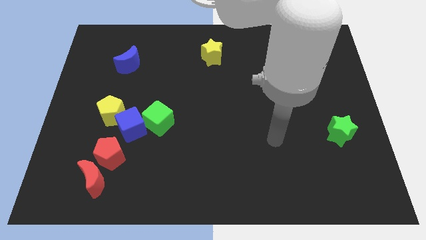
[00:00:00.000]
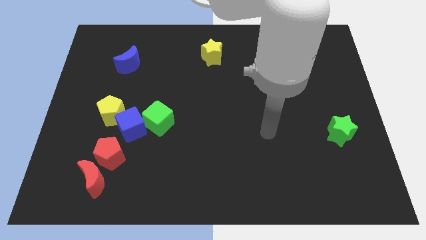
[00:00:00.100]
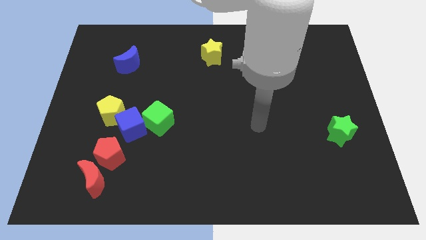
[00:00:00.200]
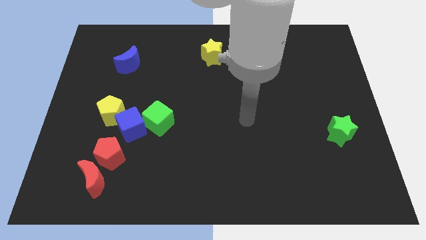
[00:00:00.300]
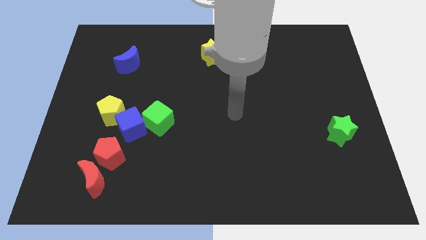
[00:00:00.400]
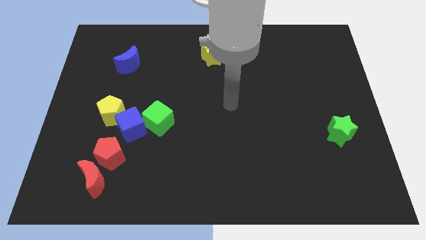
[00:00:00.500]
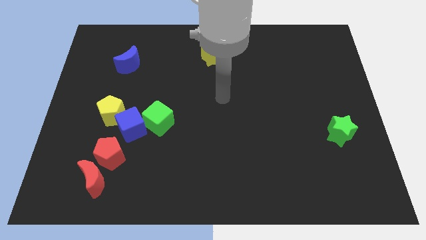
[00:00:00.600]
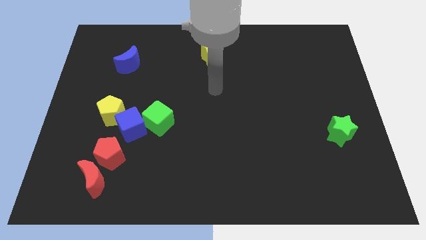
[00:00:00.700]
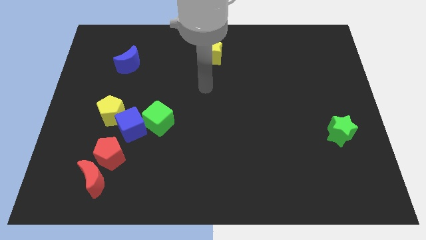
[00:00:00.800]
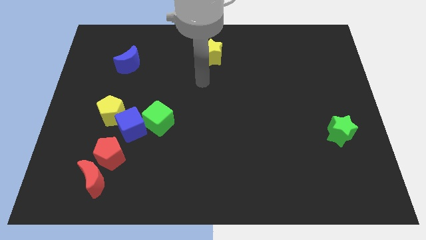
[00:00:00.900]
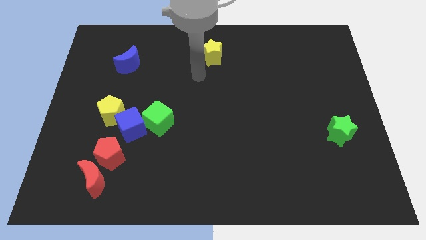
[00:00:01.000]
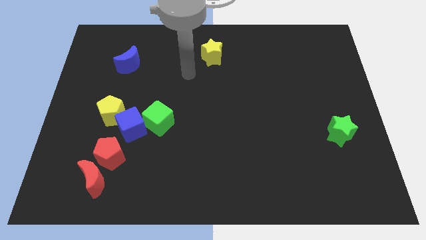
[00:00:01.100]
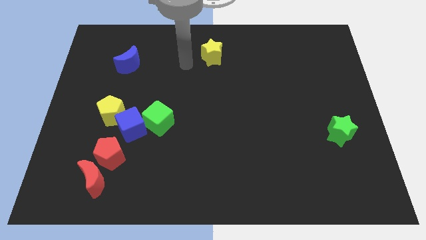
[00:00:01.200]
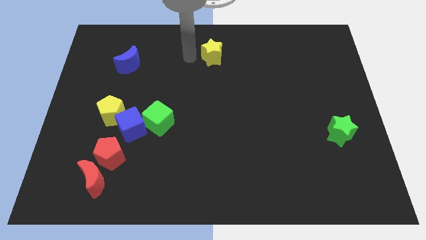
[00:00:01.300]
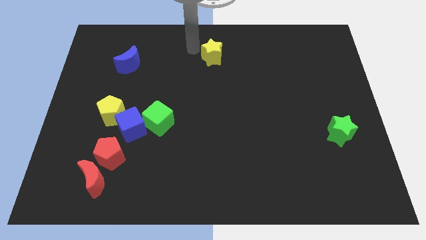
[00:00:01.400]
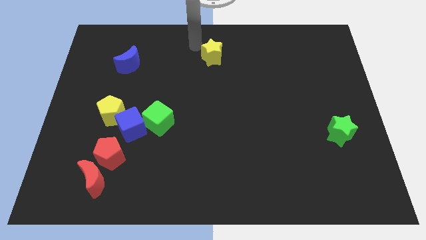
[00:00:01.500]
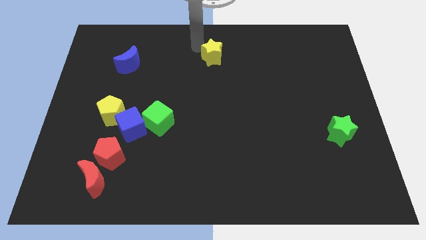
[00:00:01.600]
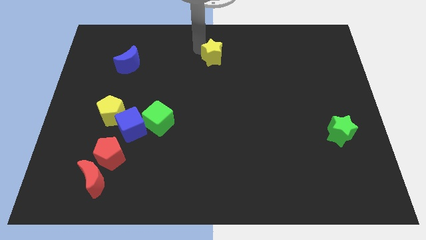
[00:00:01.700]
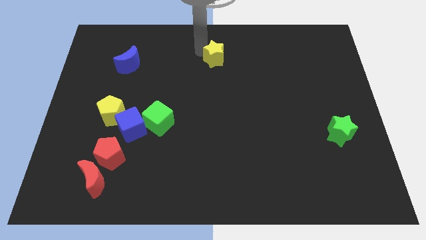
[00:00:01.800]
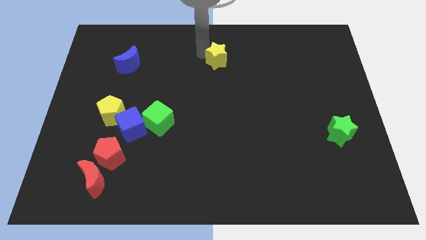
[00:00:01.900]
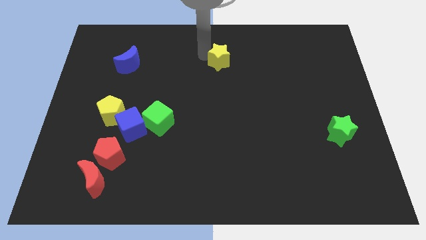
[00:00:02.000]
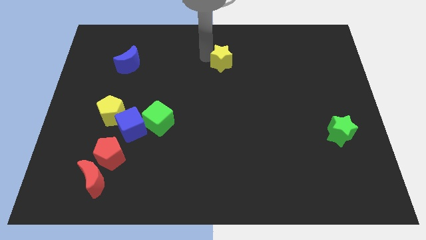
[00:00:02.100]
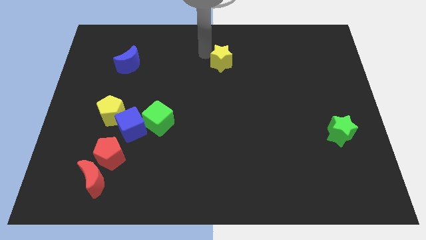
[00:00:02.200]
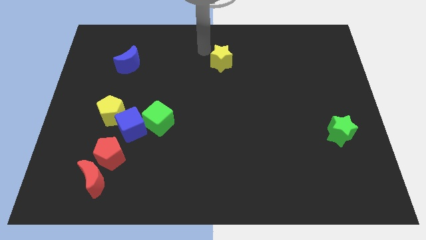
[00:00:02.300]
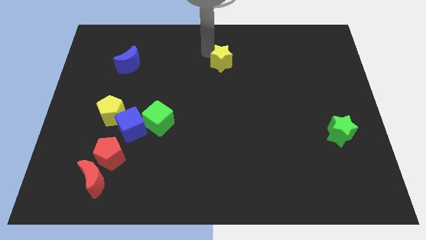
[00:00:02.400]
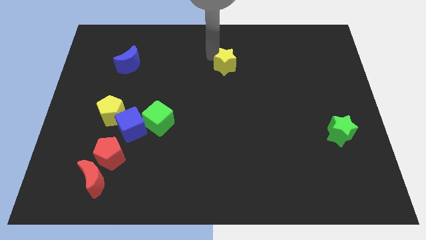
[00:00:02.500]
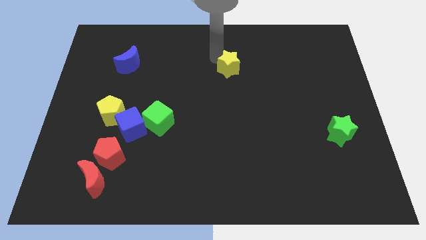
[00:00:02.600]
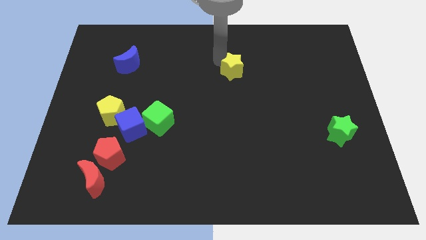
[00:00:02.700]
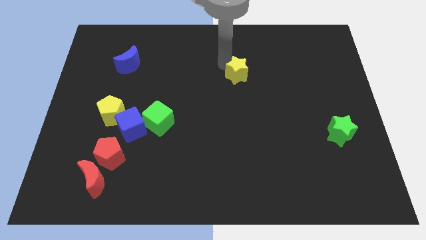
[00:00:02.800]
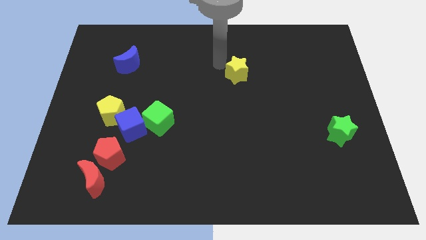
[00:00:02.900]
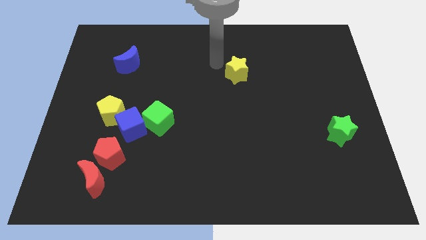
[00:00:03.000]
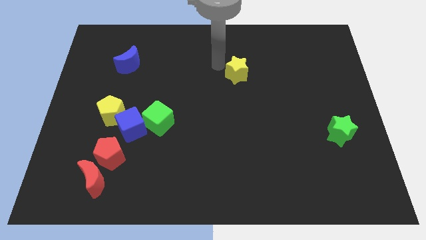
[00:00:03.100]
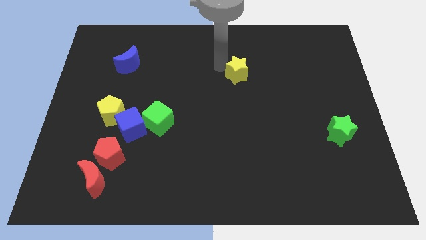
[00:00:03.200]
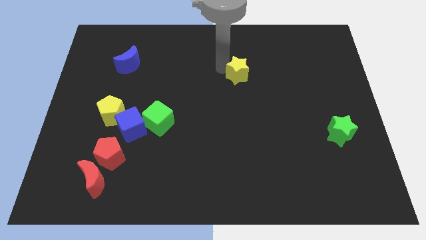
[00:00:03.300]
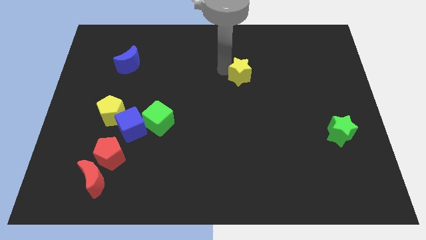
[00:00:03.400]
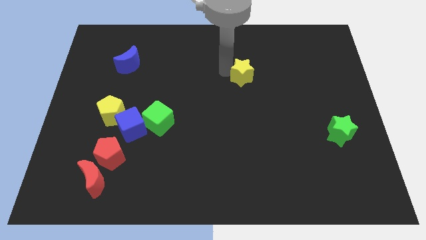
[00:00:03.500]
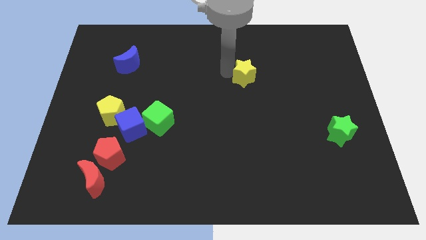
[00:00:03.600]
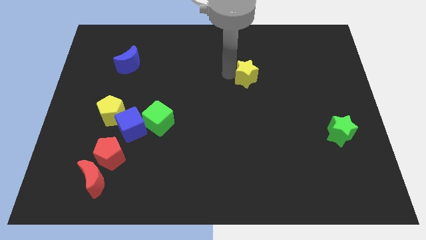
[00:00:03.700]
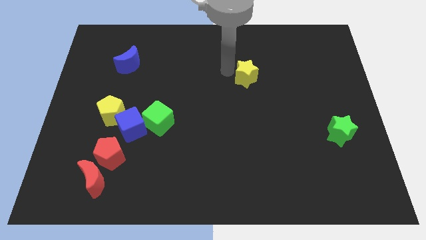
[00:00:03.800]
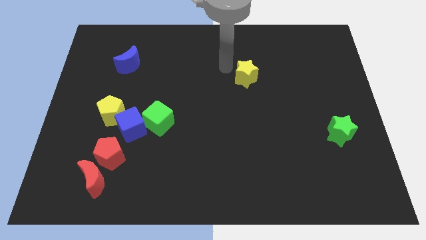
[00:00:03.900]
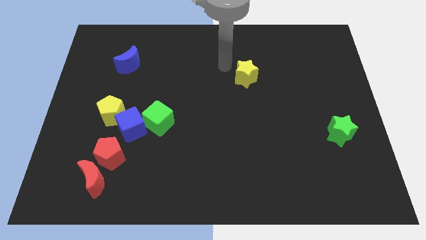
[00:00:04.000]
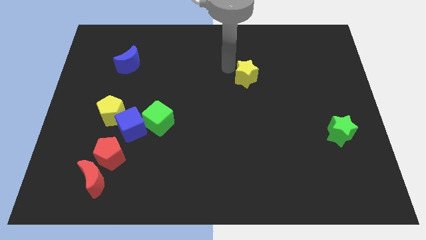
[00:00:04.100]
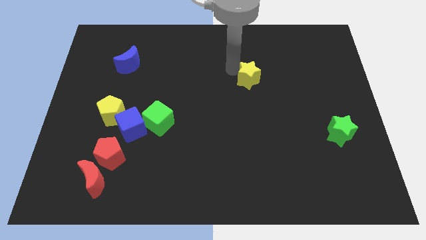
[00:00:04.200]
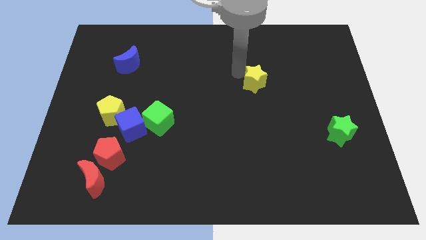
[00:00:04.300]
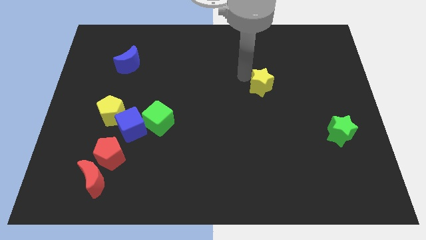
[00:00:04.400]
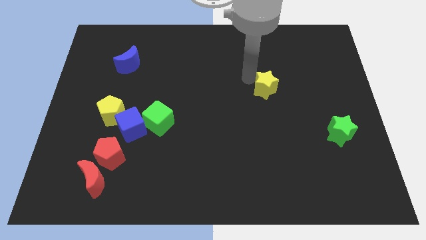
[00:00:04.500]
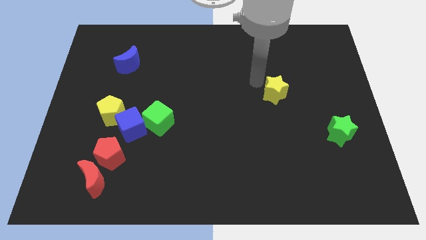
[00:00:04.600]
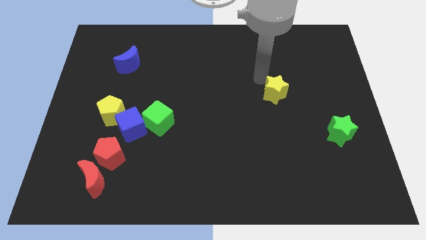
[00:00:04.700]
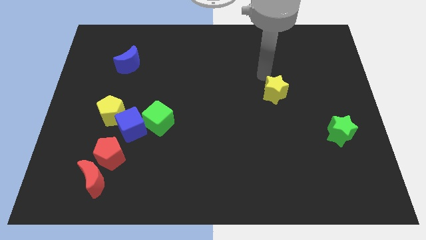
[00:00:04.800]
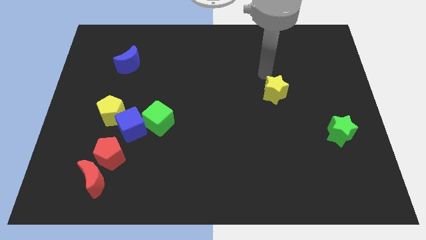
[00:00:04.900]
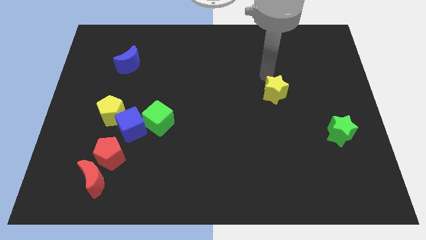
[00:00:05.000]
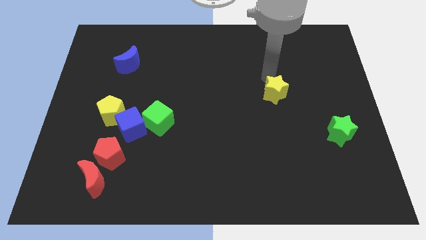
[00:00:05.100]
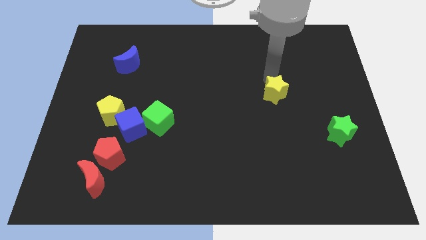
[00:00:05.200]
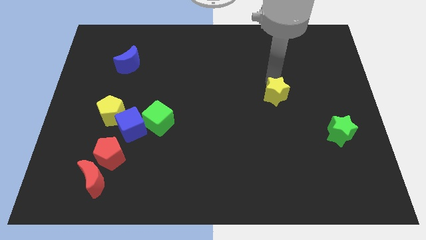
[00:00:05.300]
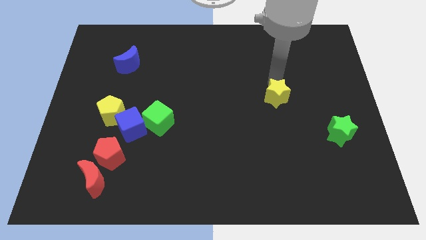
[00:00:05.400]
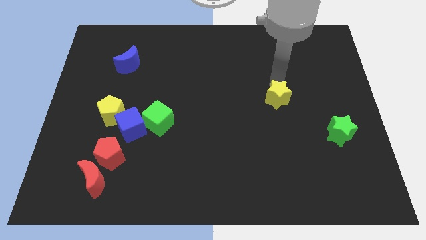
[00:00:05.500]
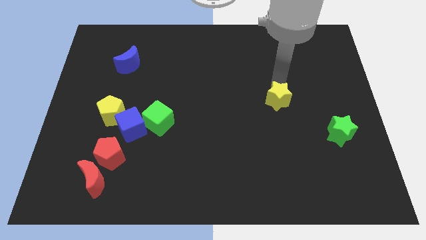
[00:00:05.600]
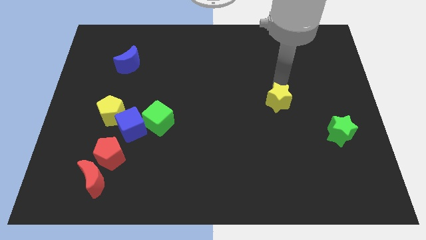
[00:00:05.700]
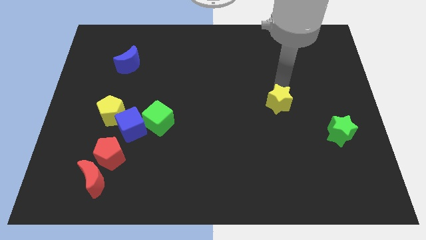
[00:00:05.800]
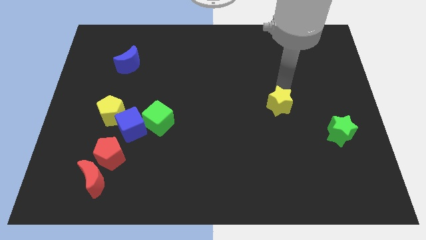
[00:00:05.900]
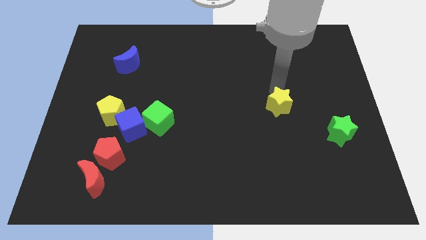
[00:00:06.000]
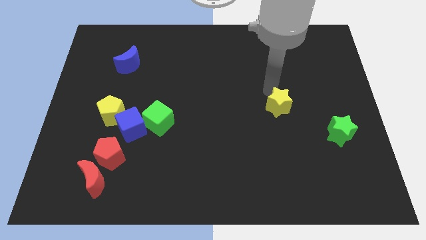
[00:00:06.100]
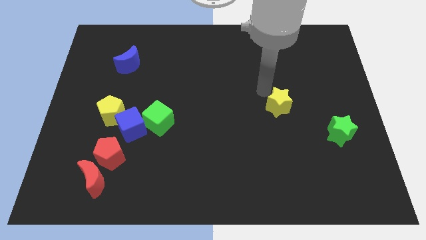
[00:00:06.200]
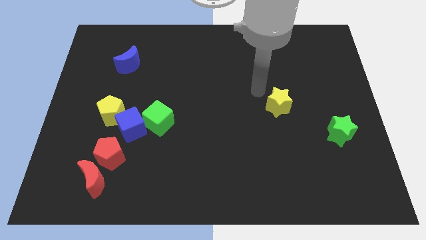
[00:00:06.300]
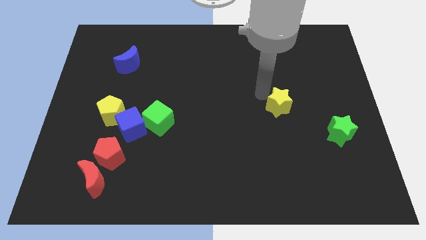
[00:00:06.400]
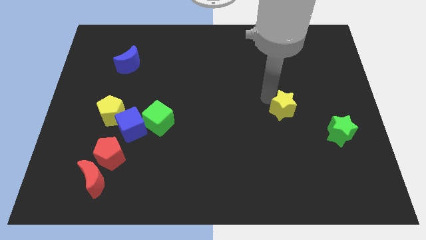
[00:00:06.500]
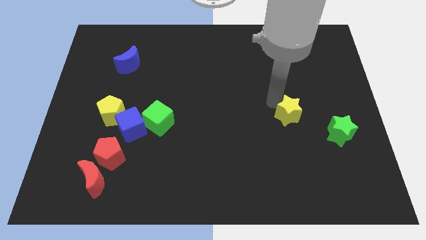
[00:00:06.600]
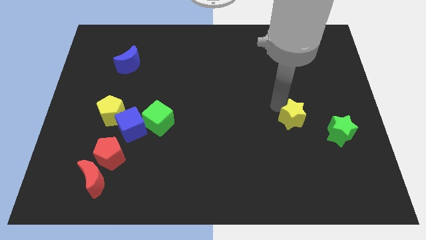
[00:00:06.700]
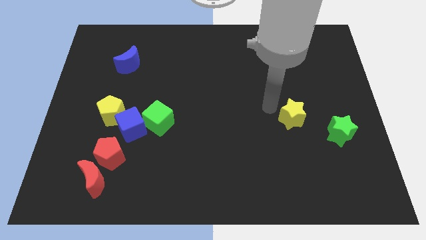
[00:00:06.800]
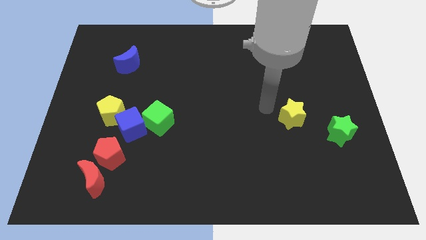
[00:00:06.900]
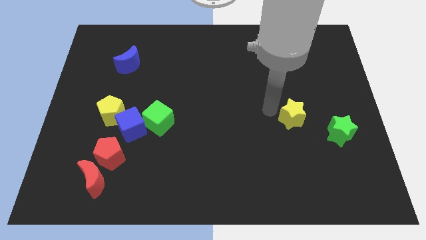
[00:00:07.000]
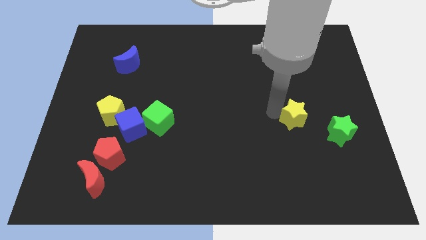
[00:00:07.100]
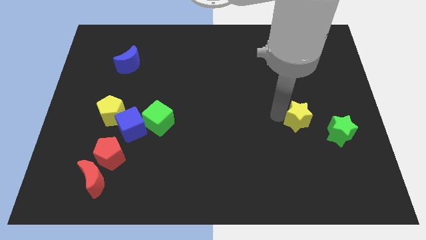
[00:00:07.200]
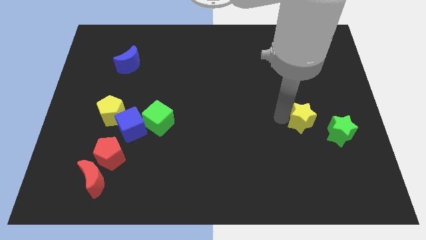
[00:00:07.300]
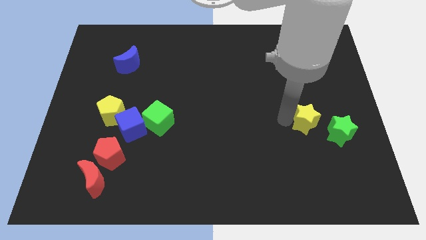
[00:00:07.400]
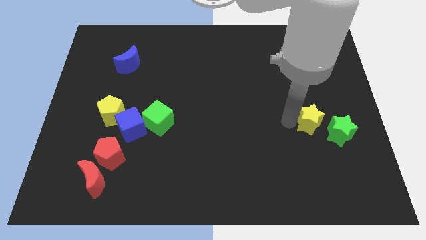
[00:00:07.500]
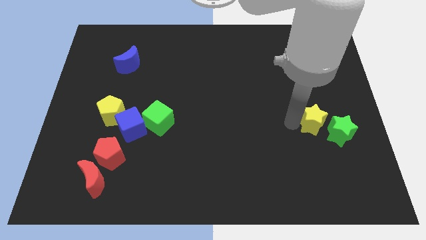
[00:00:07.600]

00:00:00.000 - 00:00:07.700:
slide the yellow star close to the green star
